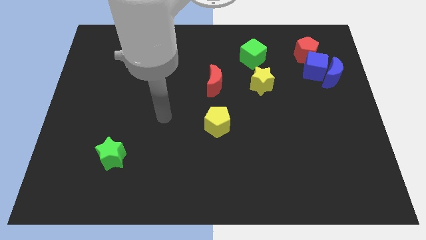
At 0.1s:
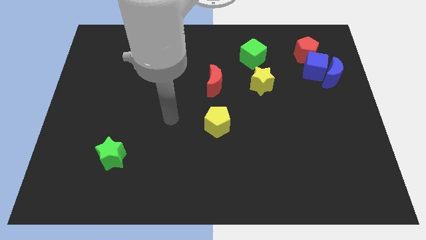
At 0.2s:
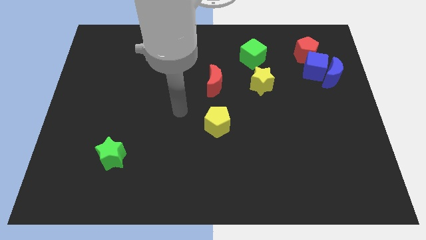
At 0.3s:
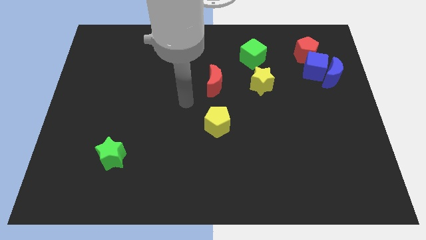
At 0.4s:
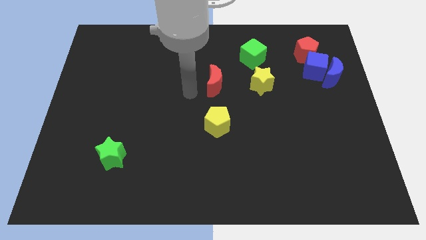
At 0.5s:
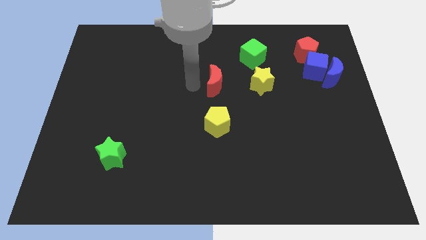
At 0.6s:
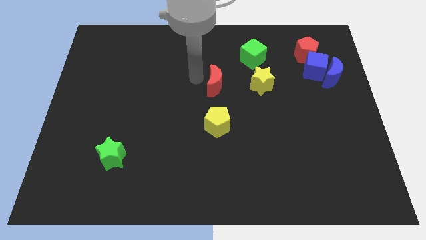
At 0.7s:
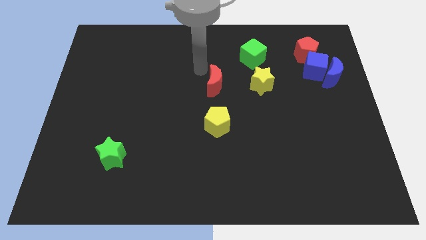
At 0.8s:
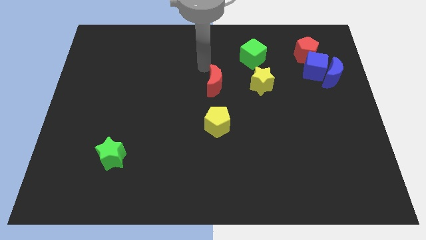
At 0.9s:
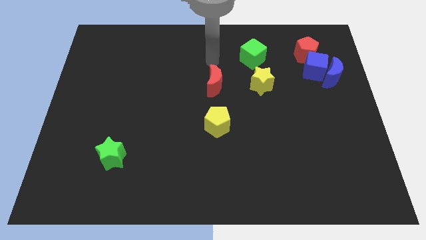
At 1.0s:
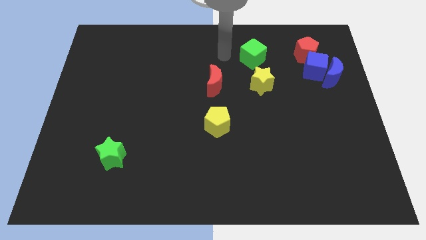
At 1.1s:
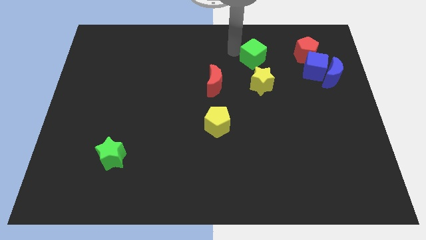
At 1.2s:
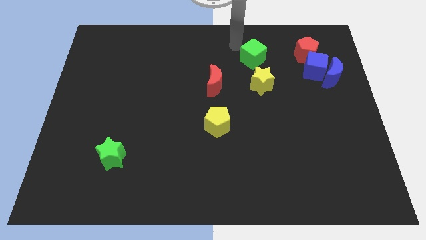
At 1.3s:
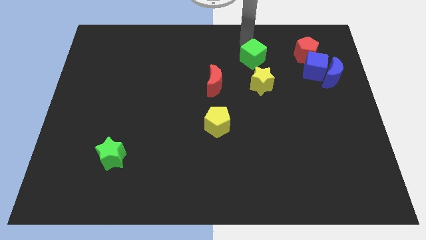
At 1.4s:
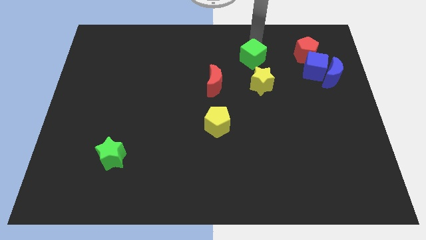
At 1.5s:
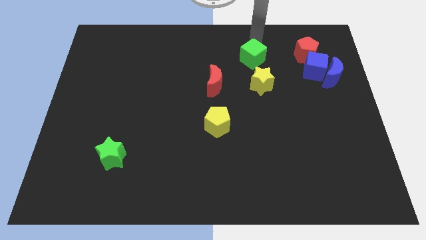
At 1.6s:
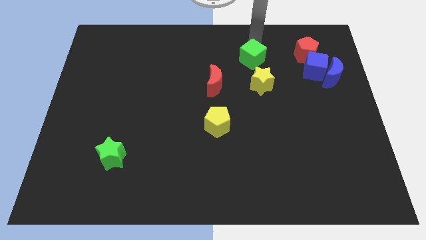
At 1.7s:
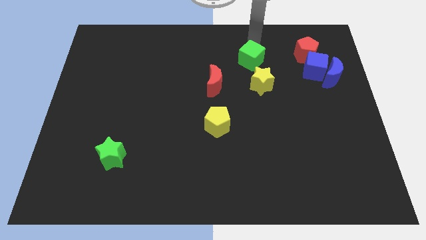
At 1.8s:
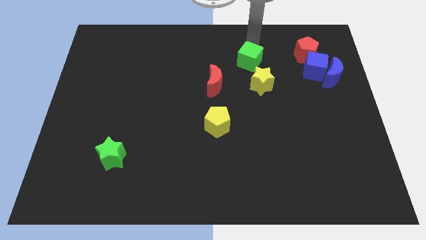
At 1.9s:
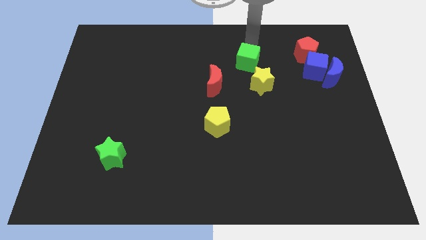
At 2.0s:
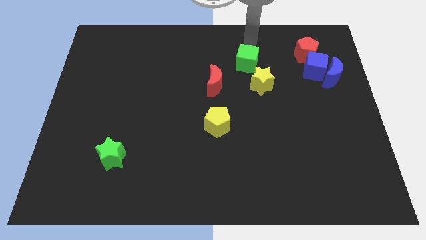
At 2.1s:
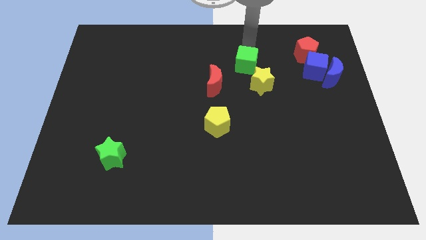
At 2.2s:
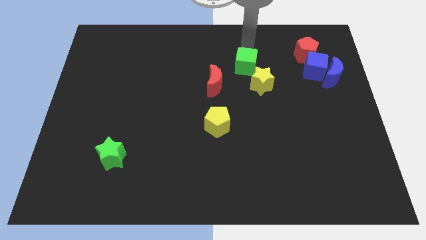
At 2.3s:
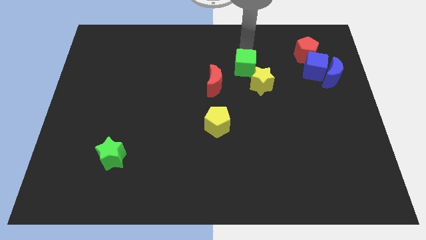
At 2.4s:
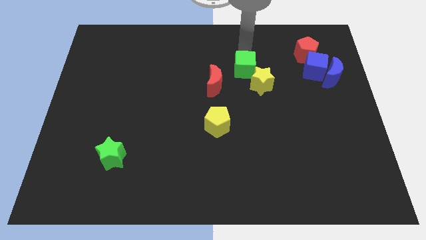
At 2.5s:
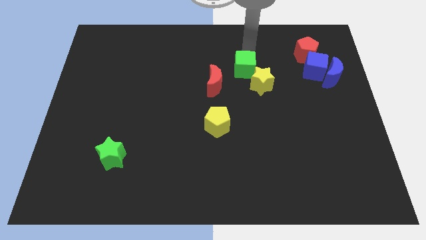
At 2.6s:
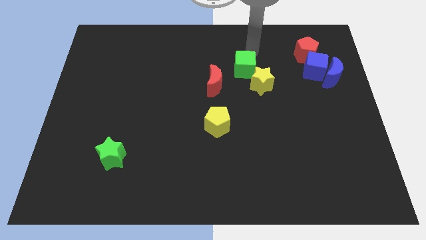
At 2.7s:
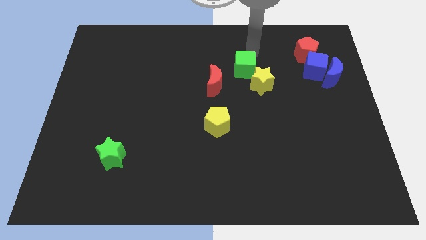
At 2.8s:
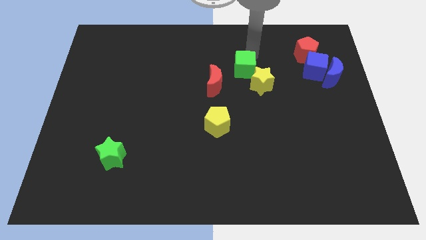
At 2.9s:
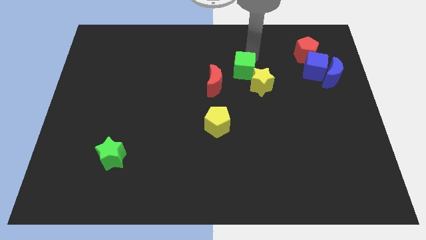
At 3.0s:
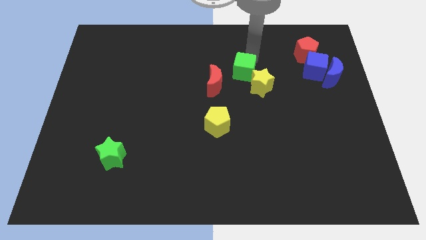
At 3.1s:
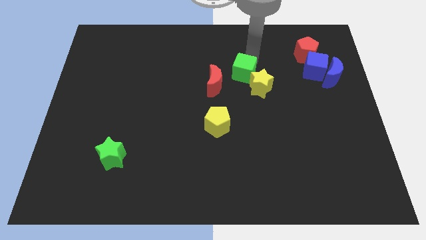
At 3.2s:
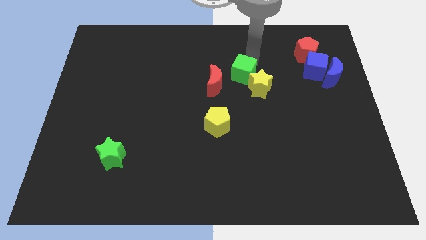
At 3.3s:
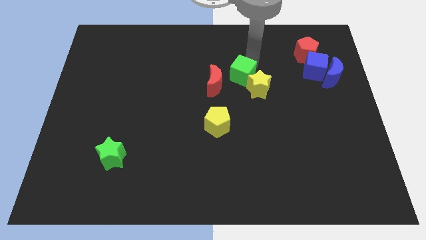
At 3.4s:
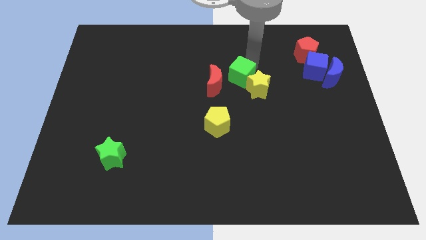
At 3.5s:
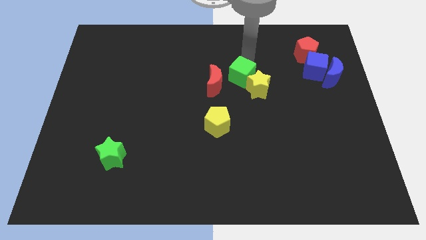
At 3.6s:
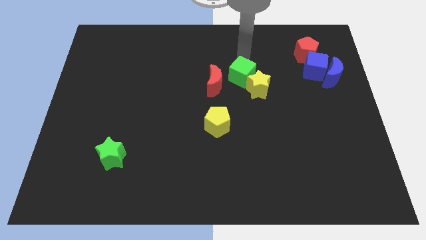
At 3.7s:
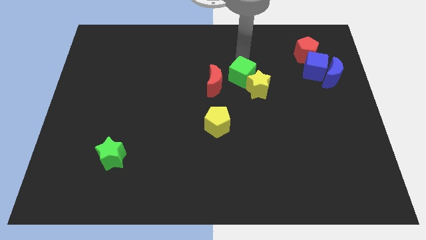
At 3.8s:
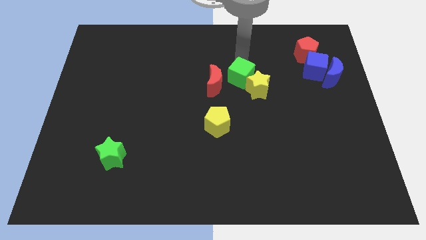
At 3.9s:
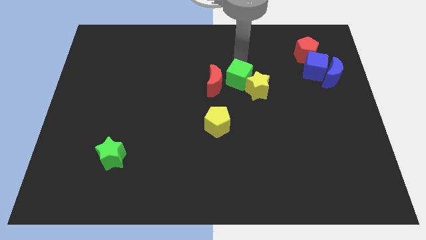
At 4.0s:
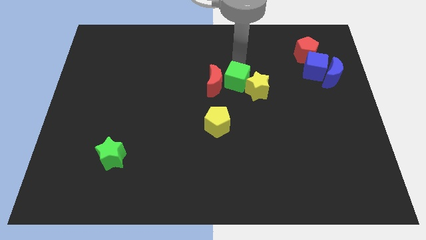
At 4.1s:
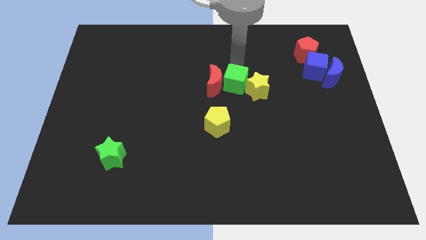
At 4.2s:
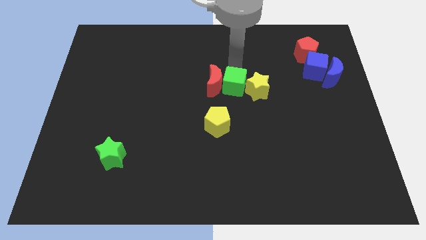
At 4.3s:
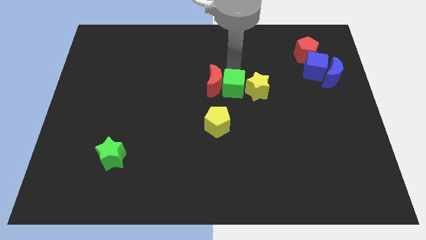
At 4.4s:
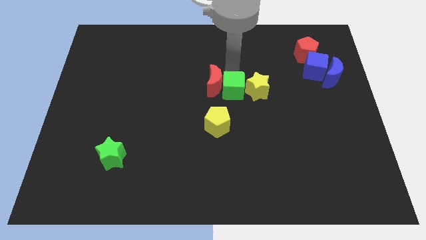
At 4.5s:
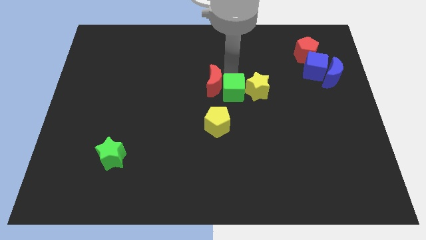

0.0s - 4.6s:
push the green cube to the top right of the yellow pentagon

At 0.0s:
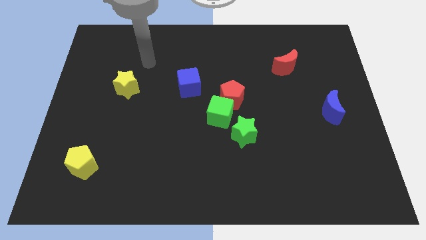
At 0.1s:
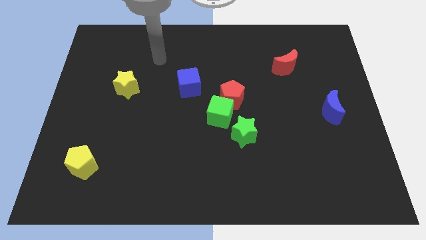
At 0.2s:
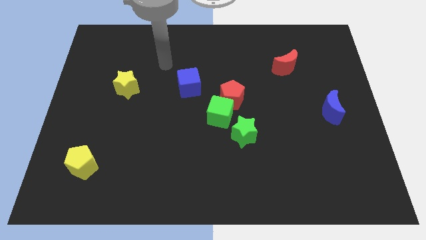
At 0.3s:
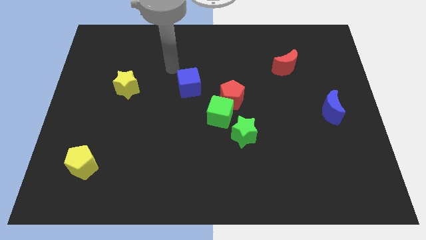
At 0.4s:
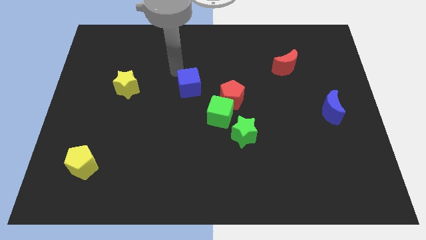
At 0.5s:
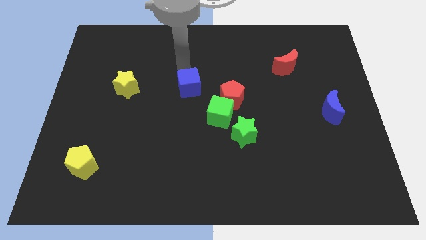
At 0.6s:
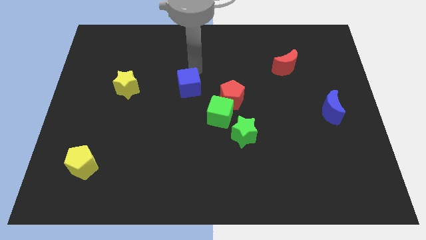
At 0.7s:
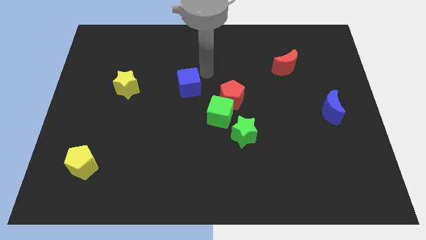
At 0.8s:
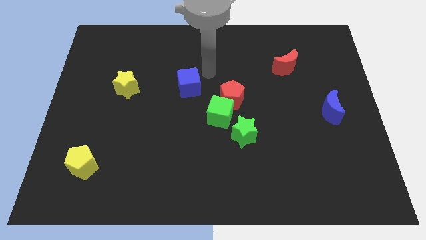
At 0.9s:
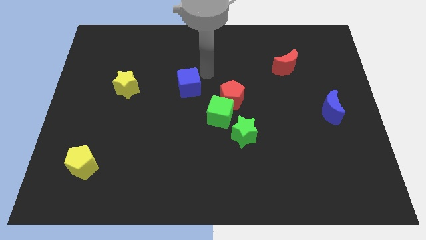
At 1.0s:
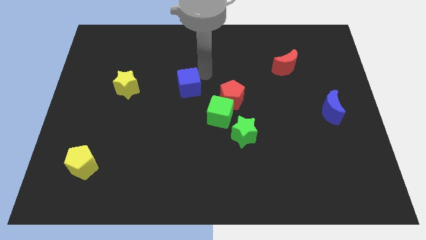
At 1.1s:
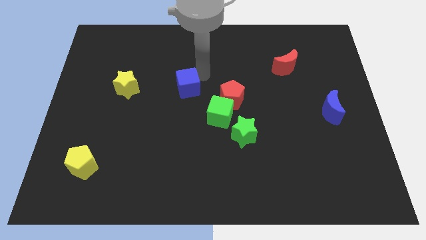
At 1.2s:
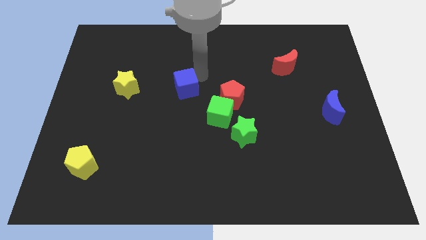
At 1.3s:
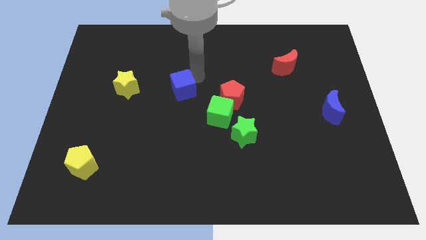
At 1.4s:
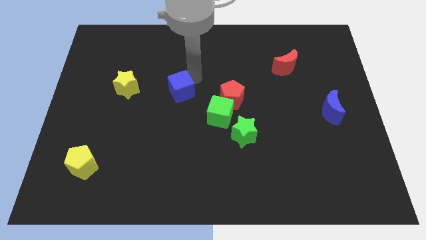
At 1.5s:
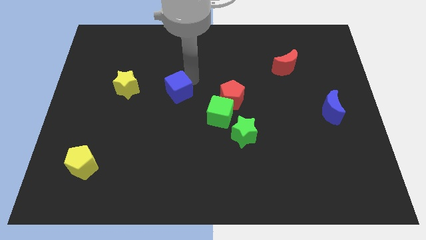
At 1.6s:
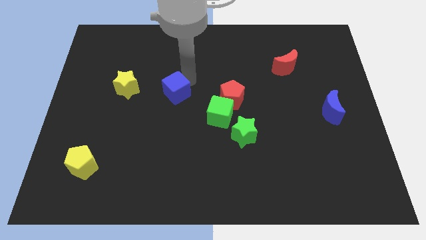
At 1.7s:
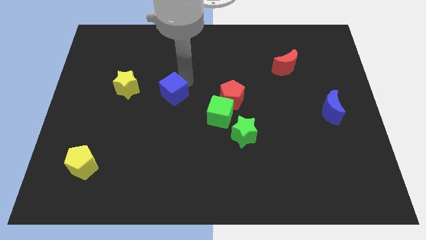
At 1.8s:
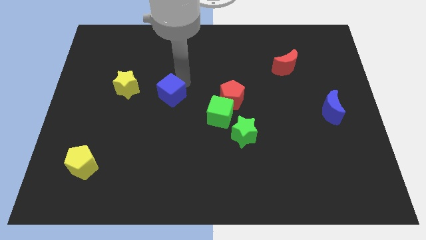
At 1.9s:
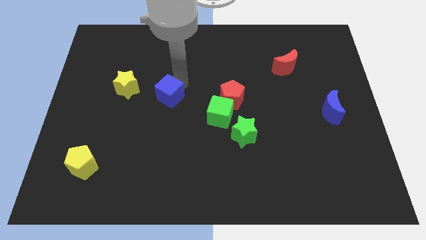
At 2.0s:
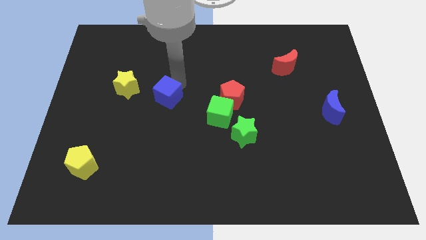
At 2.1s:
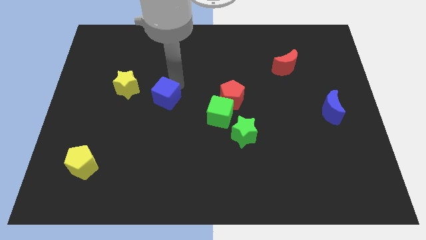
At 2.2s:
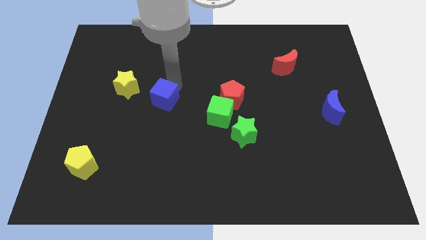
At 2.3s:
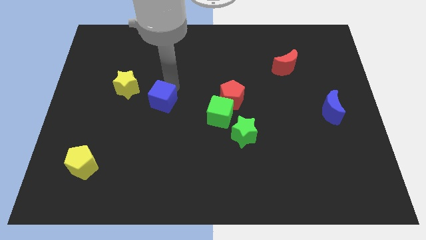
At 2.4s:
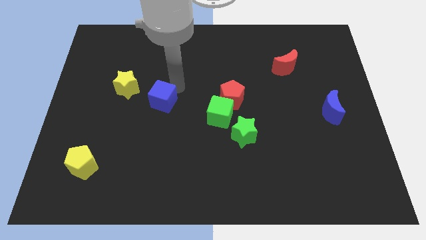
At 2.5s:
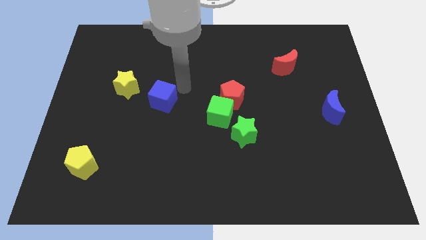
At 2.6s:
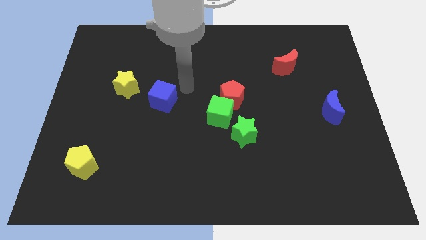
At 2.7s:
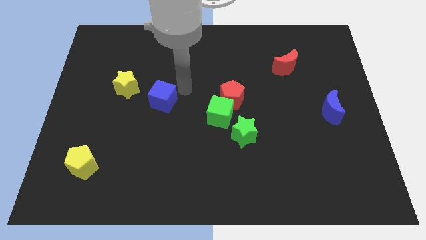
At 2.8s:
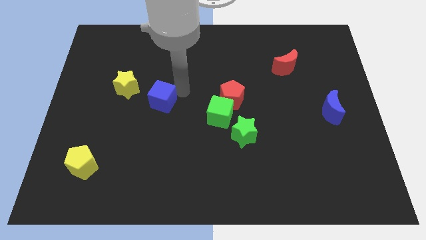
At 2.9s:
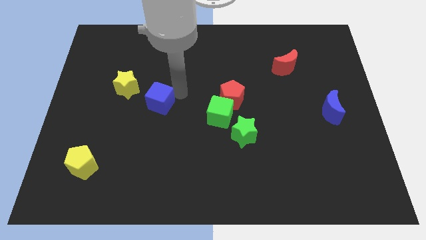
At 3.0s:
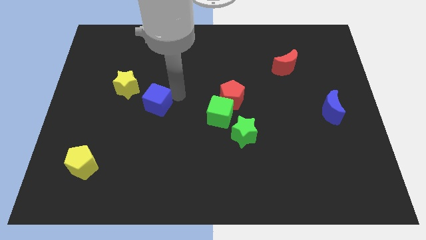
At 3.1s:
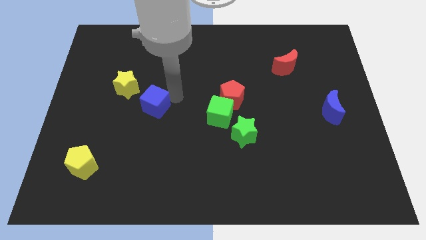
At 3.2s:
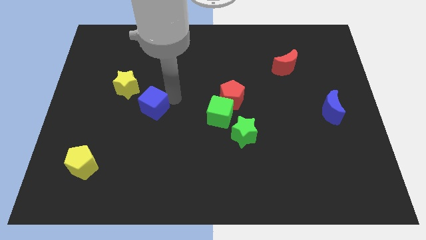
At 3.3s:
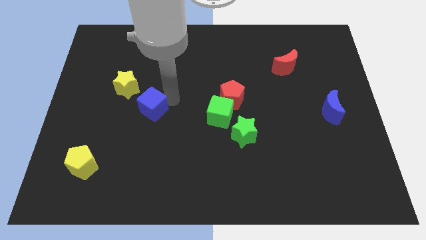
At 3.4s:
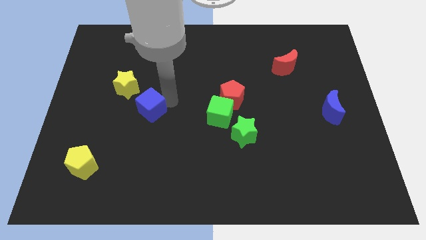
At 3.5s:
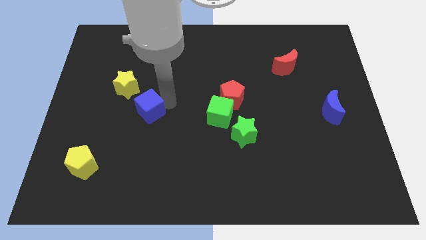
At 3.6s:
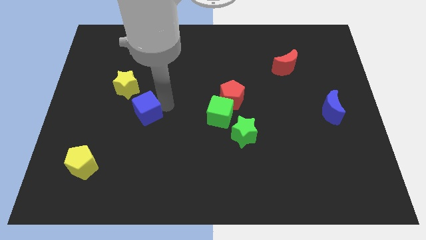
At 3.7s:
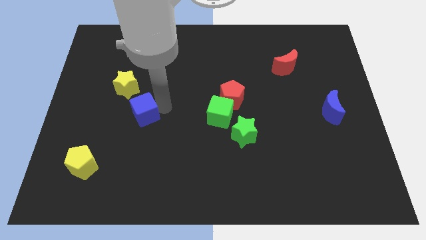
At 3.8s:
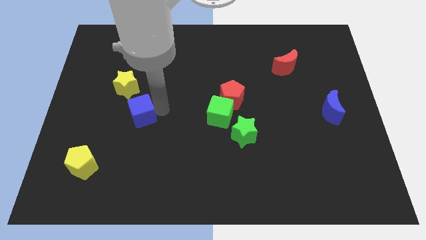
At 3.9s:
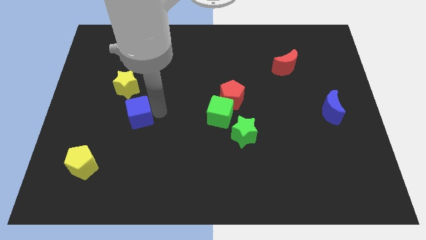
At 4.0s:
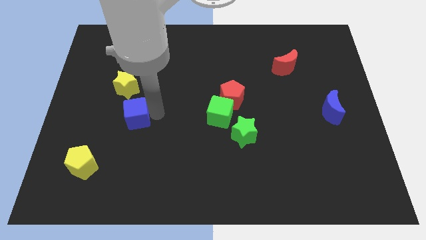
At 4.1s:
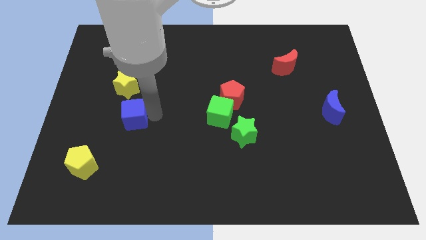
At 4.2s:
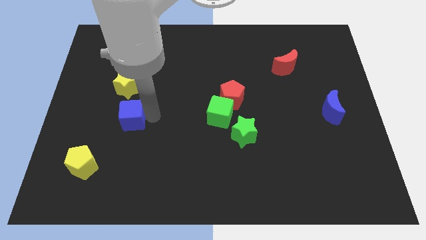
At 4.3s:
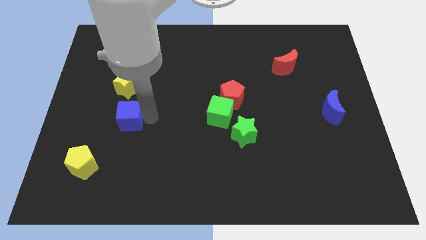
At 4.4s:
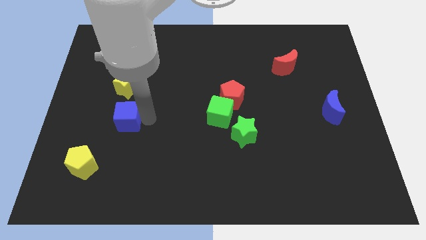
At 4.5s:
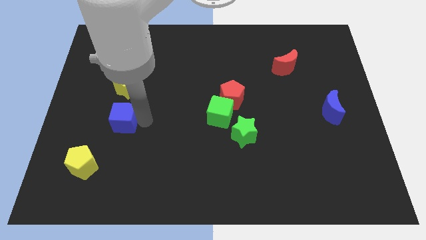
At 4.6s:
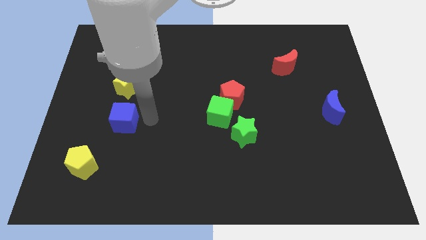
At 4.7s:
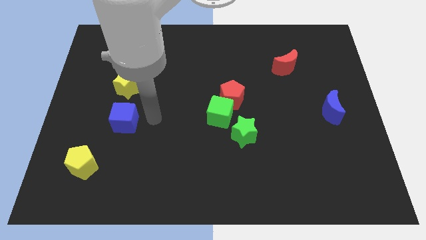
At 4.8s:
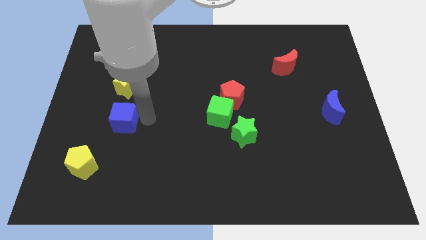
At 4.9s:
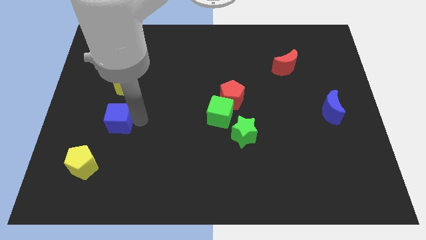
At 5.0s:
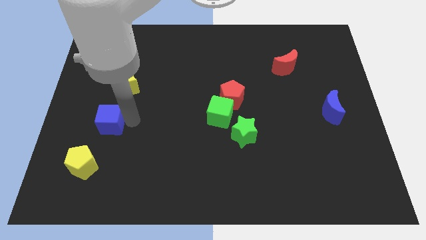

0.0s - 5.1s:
put the blue cube above the yellow pentagon
